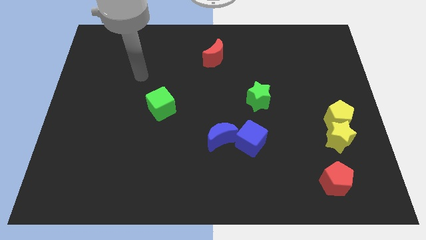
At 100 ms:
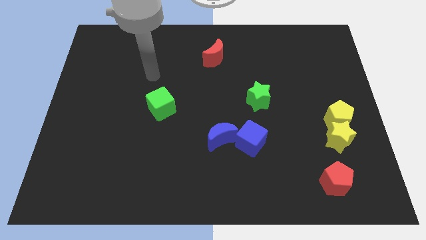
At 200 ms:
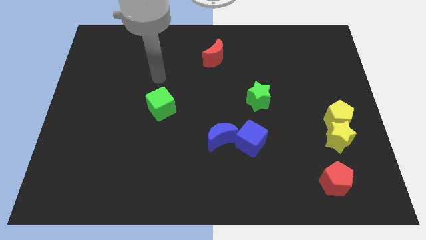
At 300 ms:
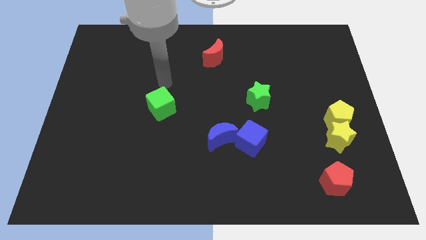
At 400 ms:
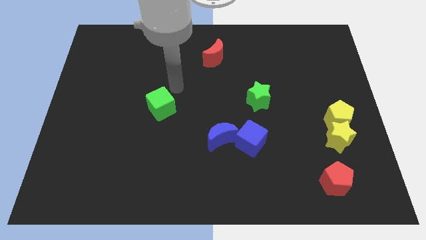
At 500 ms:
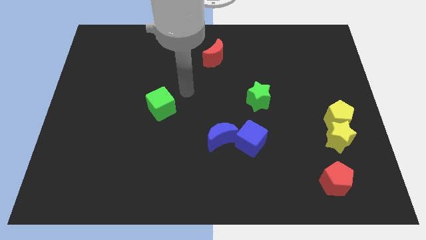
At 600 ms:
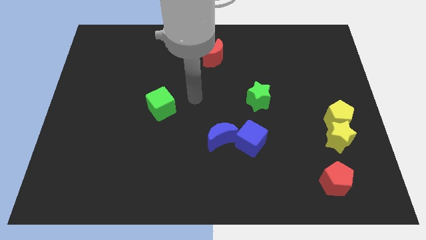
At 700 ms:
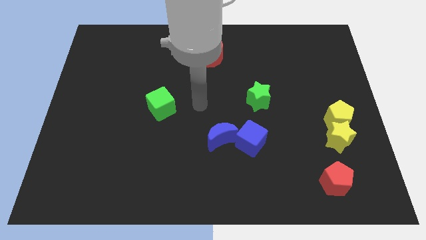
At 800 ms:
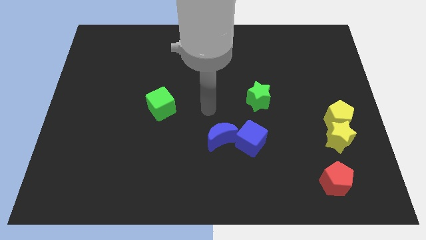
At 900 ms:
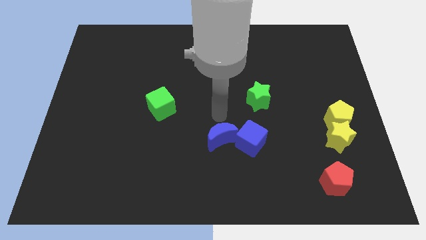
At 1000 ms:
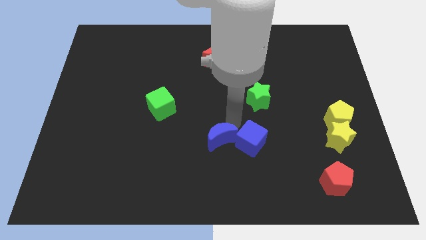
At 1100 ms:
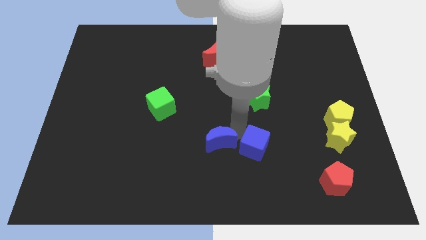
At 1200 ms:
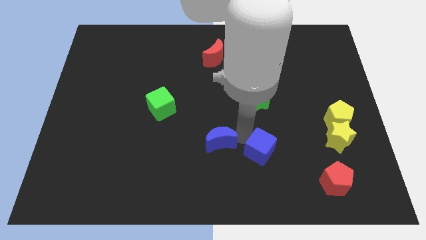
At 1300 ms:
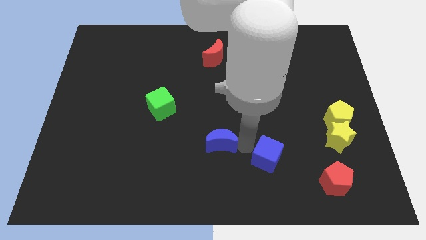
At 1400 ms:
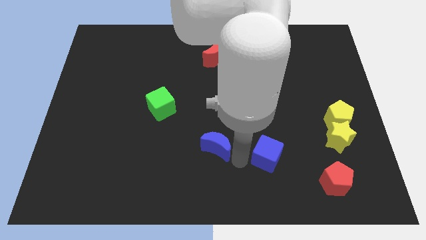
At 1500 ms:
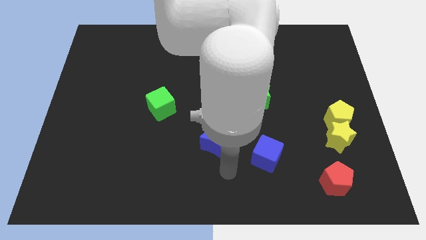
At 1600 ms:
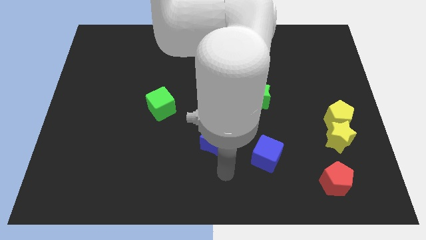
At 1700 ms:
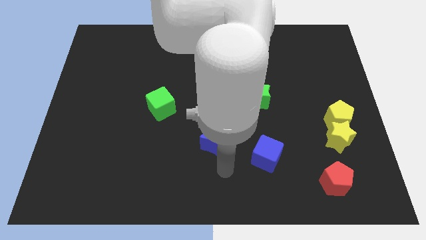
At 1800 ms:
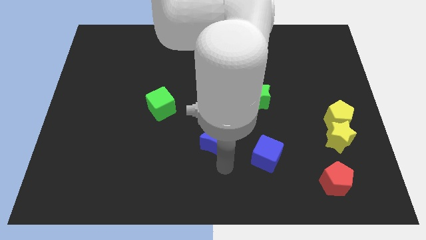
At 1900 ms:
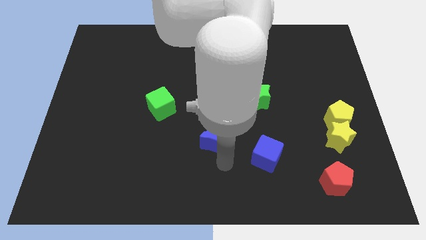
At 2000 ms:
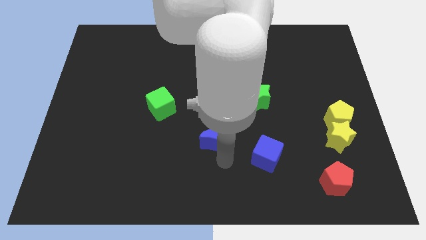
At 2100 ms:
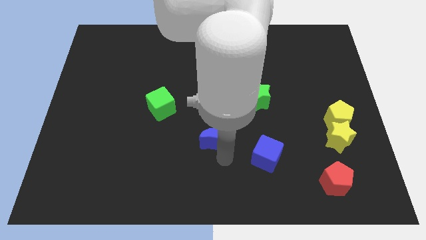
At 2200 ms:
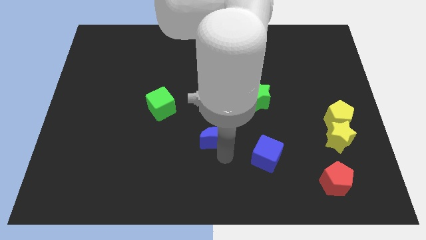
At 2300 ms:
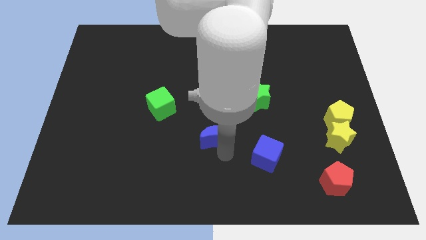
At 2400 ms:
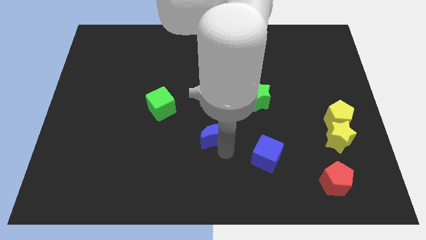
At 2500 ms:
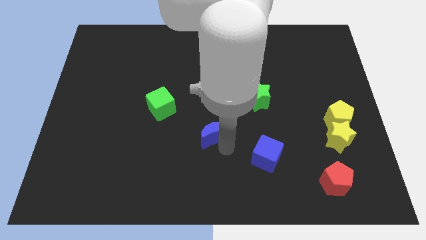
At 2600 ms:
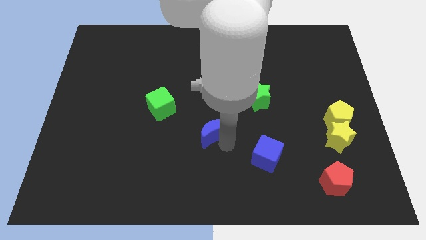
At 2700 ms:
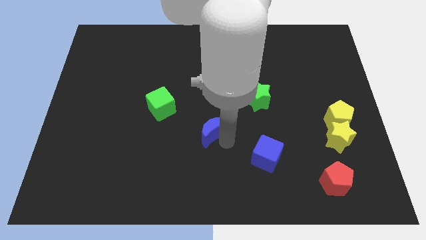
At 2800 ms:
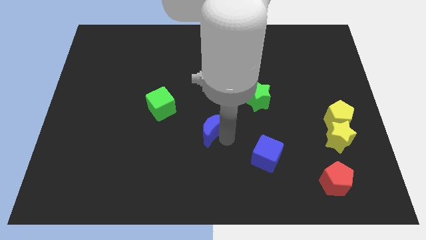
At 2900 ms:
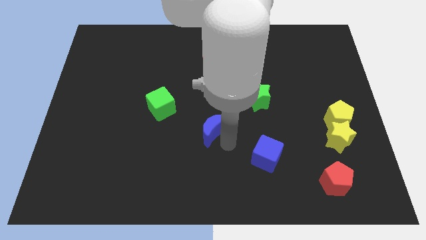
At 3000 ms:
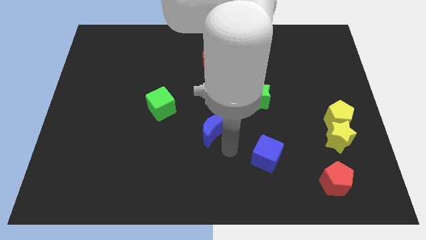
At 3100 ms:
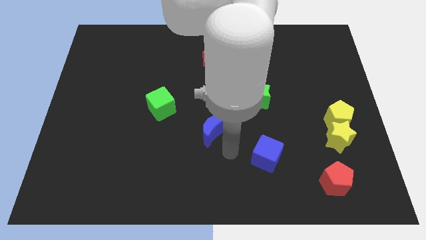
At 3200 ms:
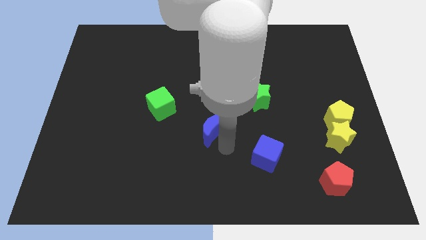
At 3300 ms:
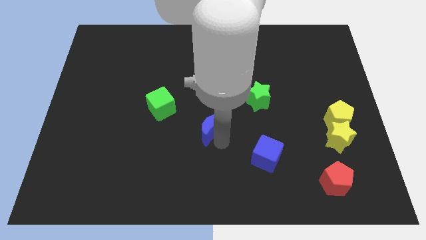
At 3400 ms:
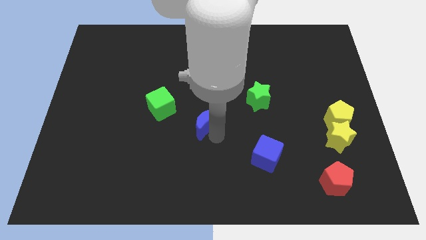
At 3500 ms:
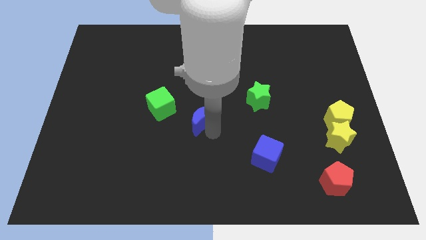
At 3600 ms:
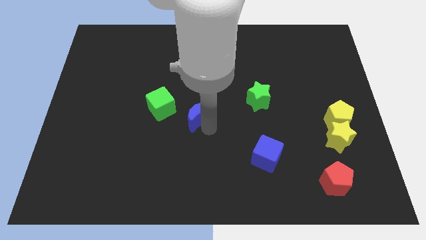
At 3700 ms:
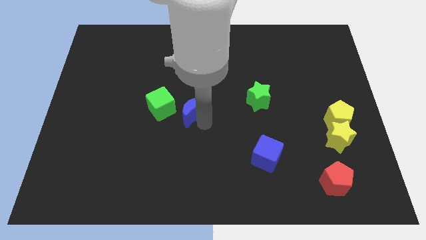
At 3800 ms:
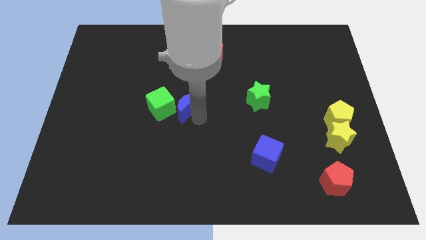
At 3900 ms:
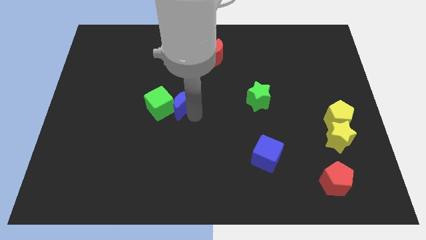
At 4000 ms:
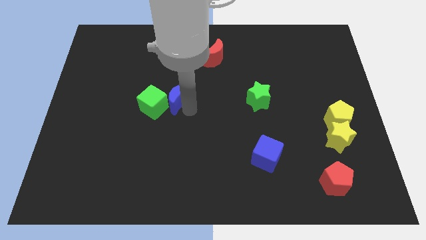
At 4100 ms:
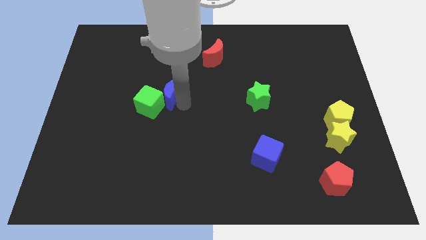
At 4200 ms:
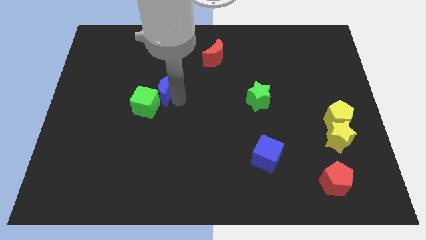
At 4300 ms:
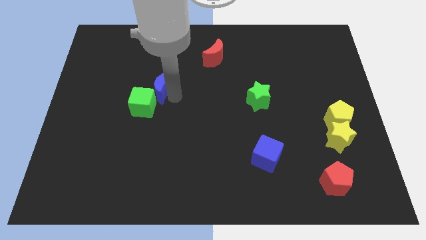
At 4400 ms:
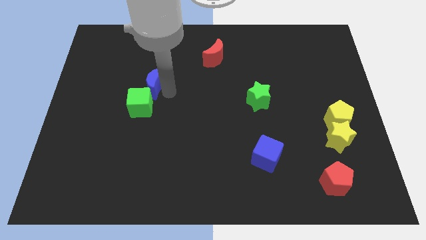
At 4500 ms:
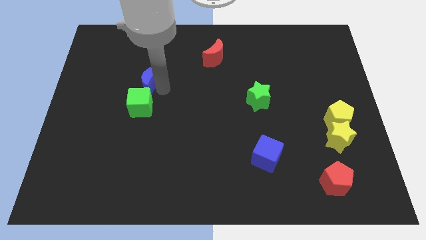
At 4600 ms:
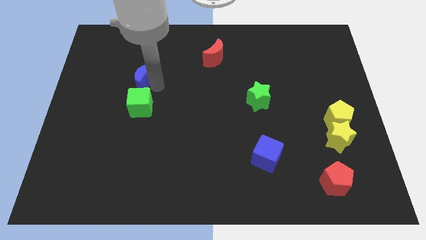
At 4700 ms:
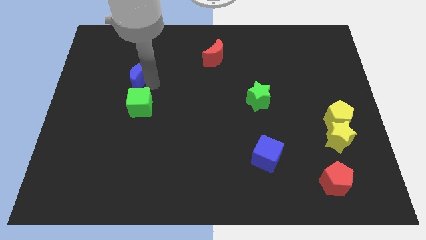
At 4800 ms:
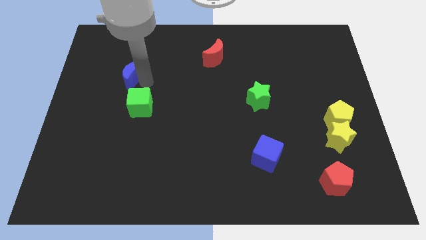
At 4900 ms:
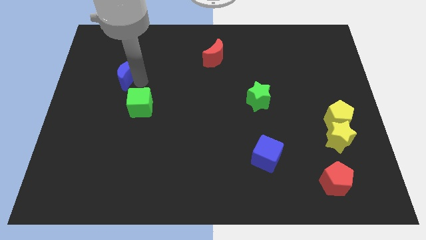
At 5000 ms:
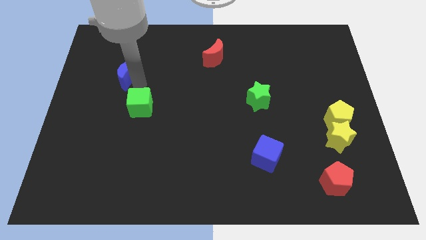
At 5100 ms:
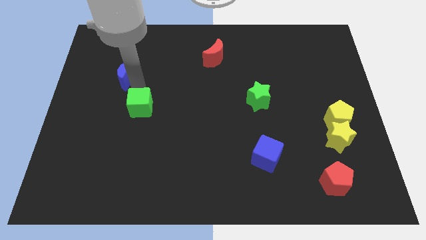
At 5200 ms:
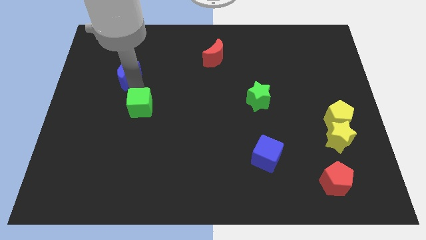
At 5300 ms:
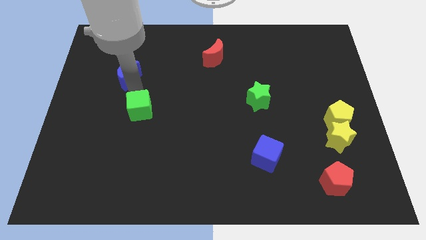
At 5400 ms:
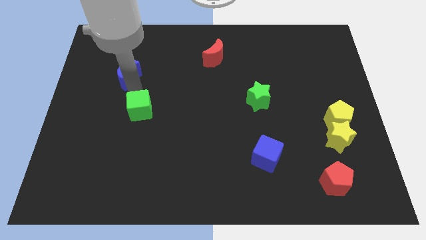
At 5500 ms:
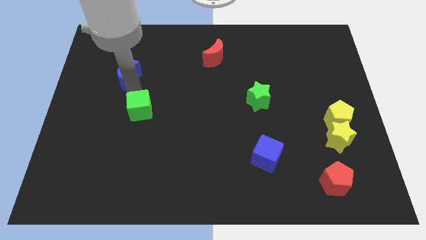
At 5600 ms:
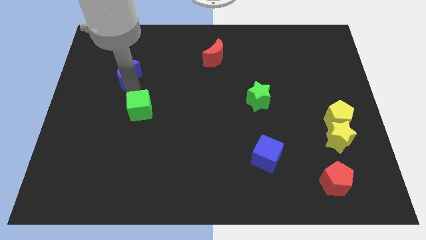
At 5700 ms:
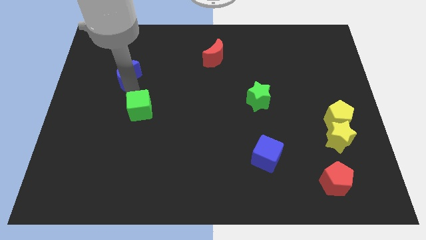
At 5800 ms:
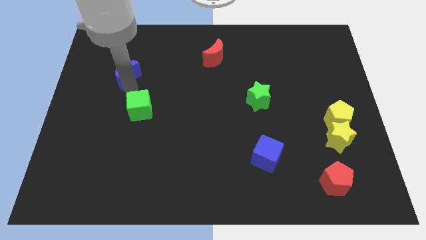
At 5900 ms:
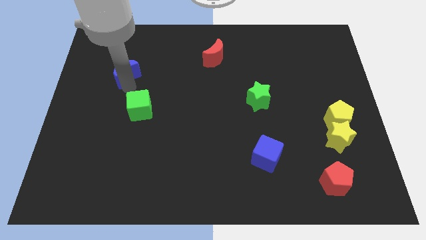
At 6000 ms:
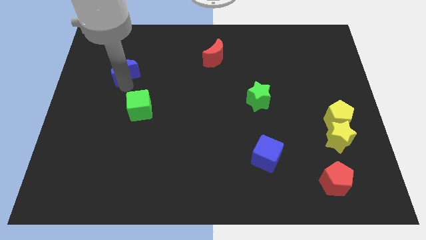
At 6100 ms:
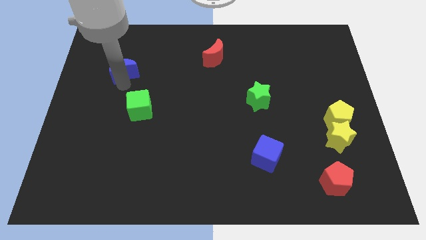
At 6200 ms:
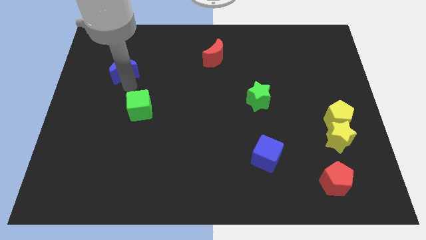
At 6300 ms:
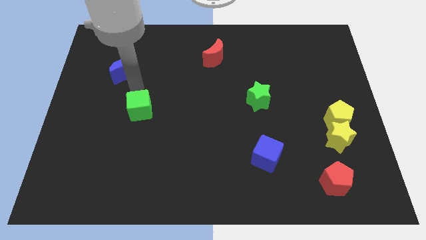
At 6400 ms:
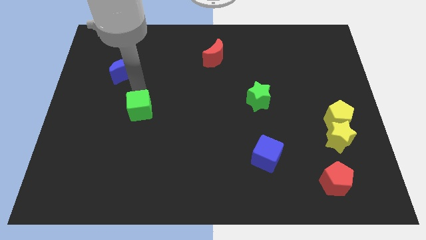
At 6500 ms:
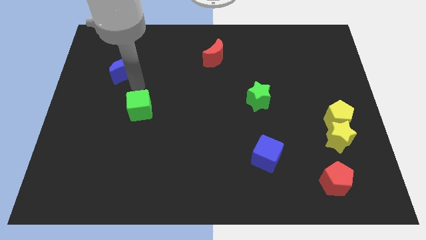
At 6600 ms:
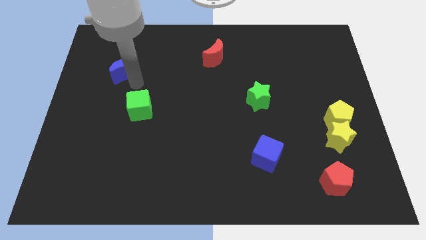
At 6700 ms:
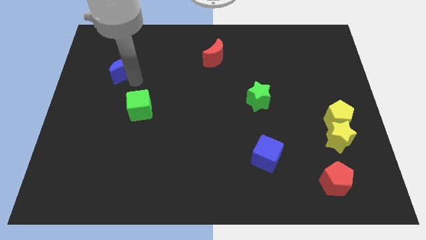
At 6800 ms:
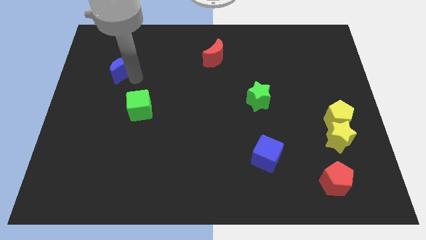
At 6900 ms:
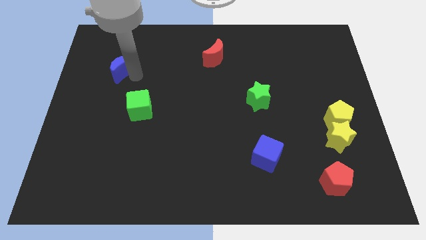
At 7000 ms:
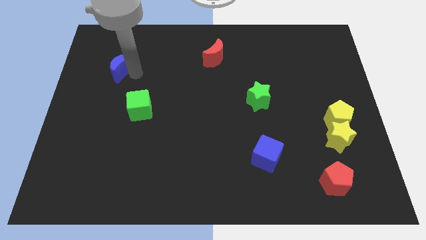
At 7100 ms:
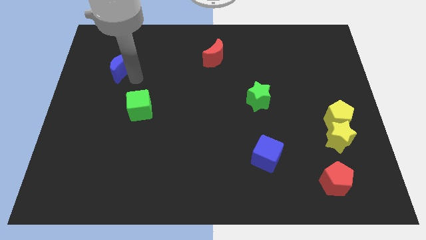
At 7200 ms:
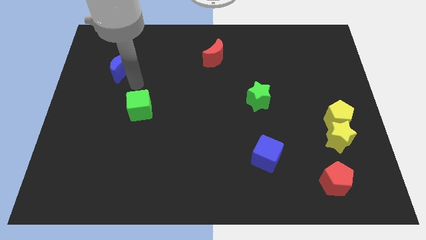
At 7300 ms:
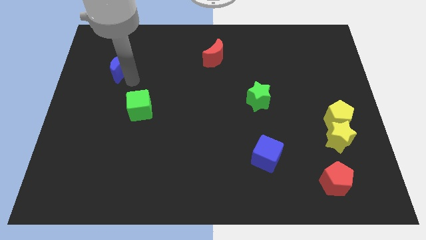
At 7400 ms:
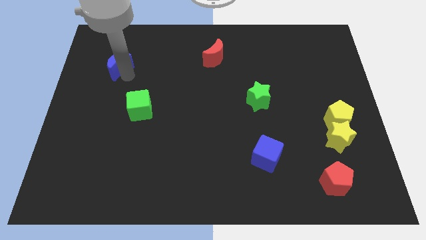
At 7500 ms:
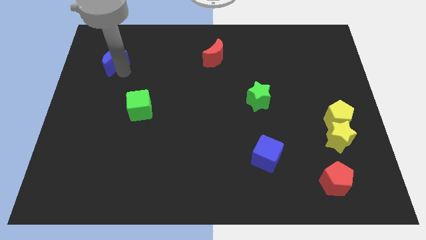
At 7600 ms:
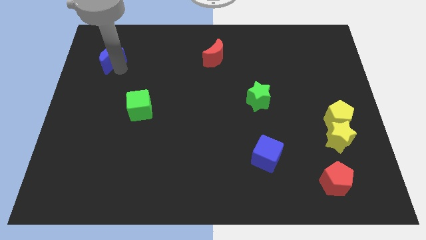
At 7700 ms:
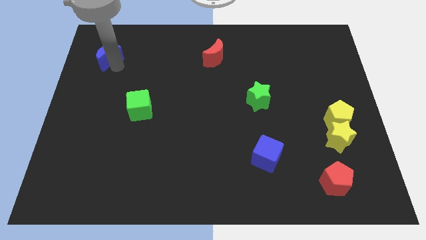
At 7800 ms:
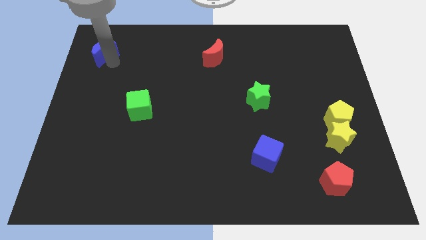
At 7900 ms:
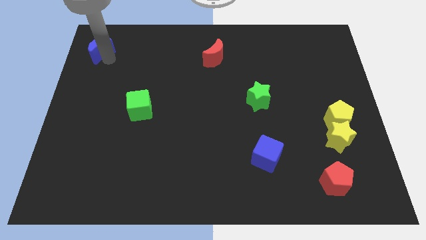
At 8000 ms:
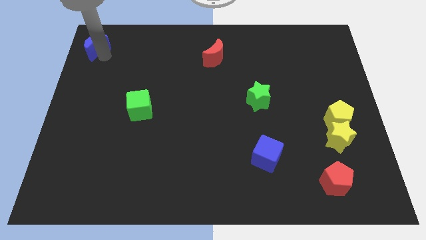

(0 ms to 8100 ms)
push the blue moon to the top left of the board
